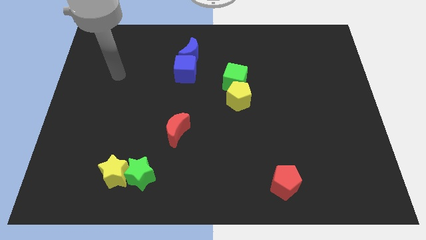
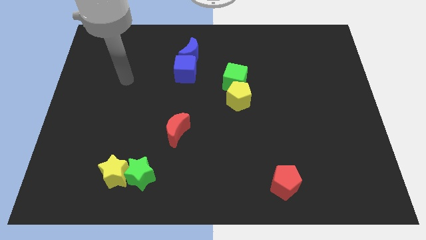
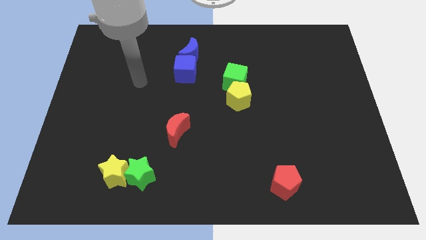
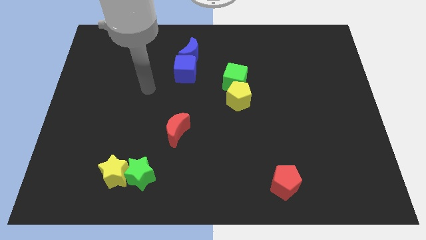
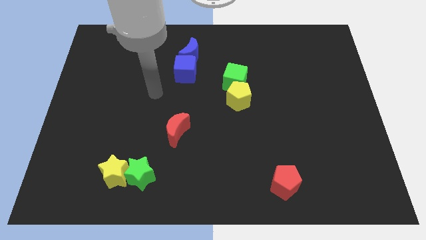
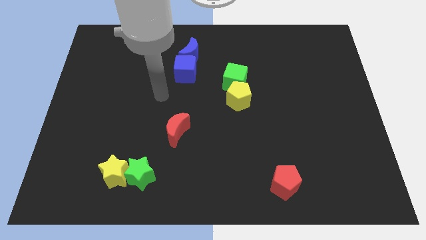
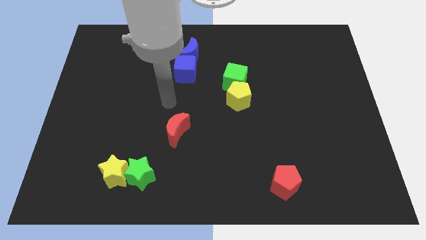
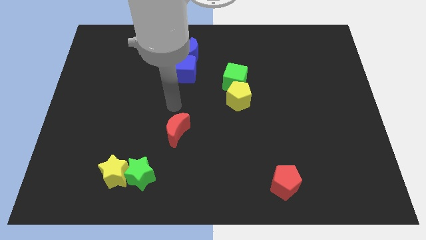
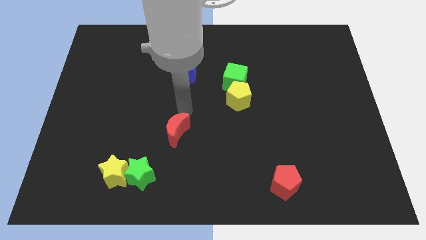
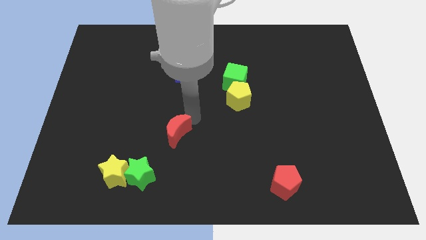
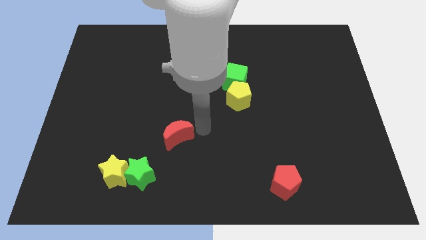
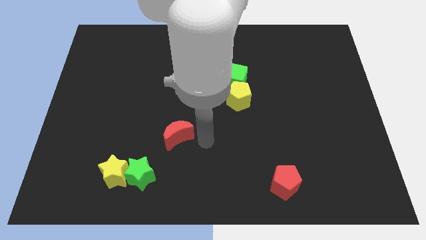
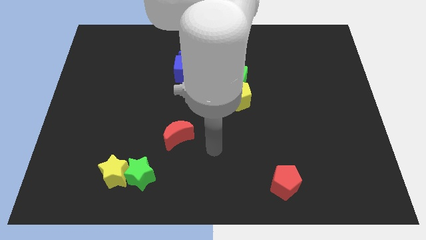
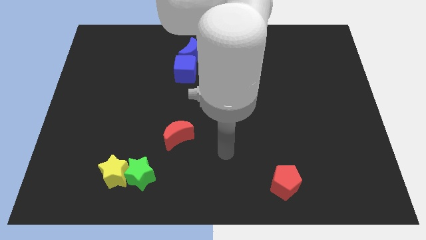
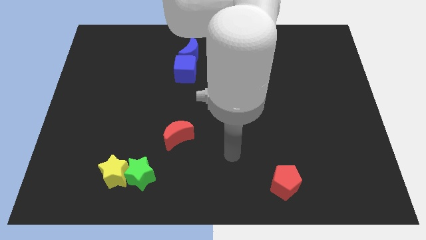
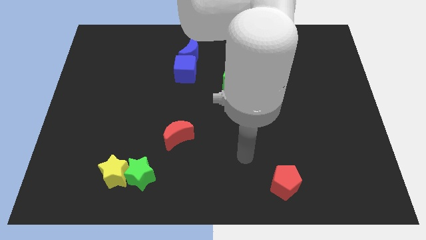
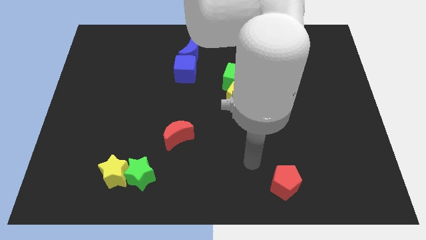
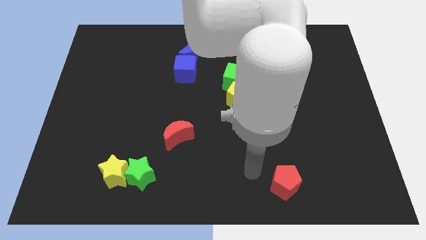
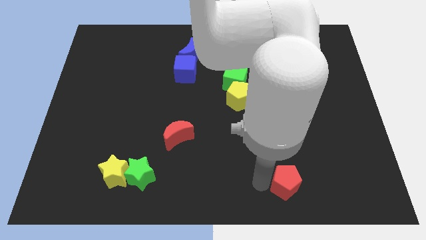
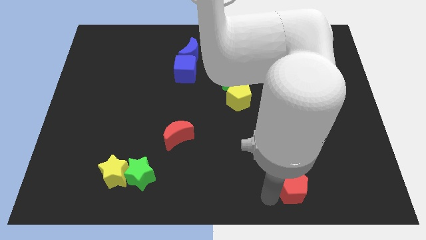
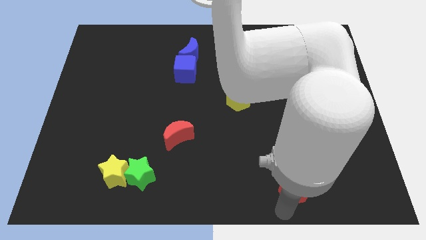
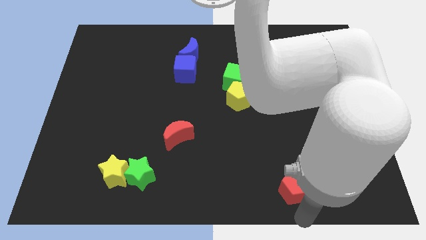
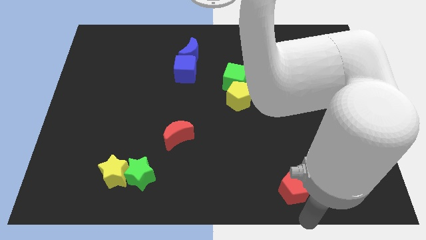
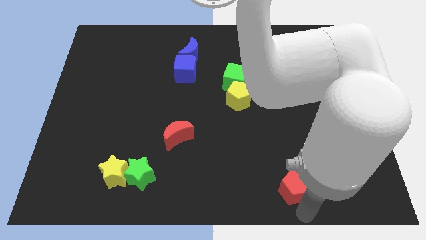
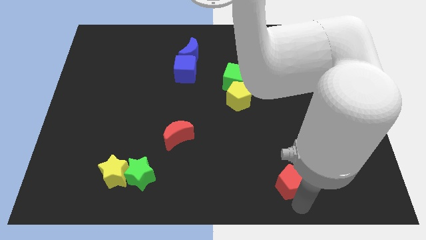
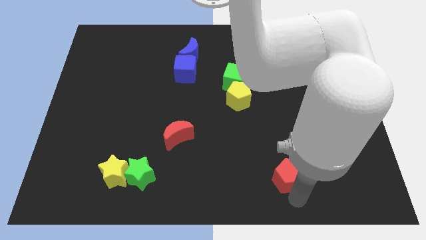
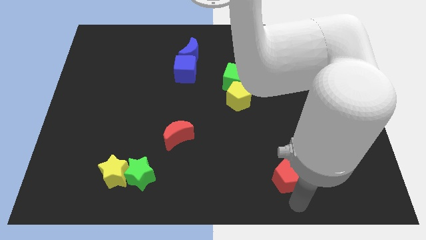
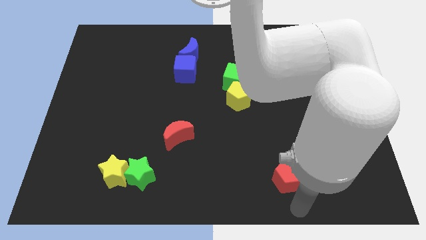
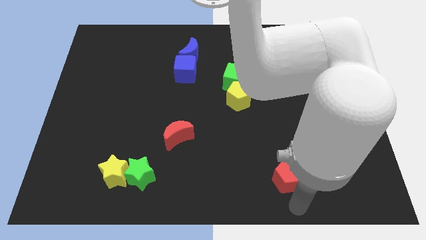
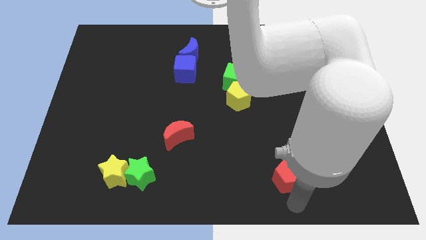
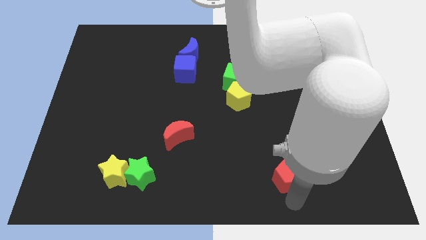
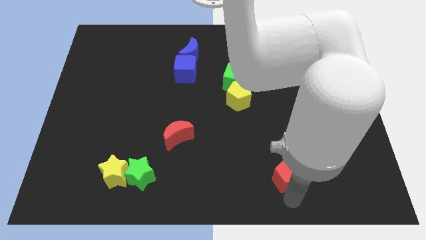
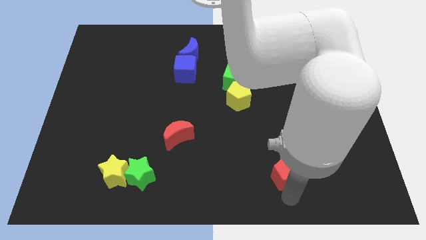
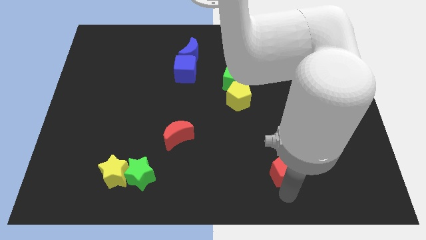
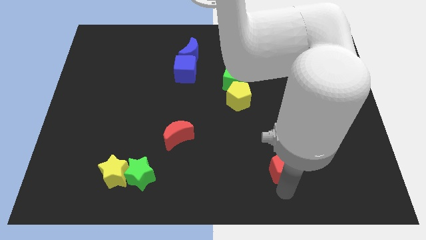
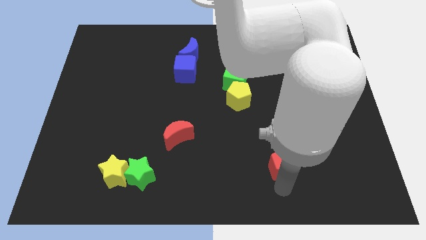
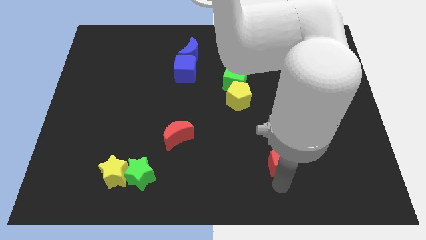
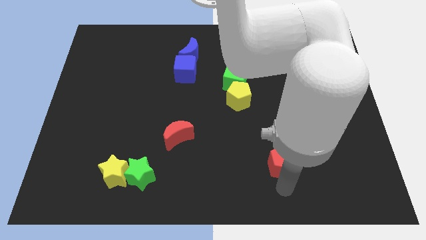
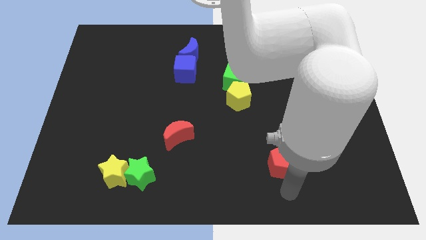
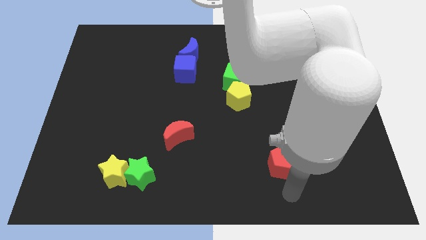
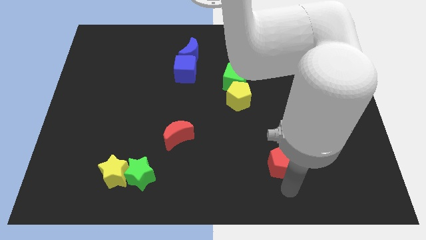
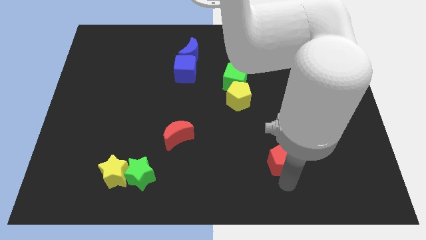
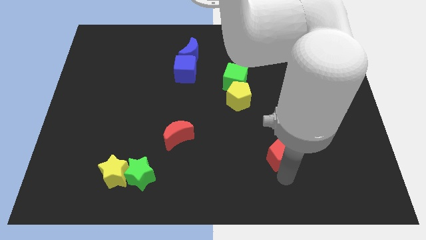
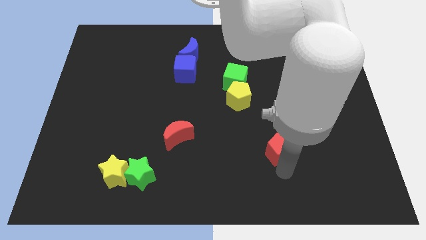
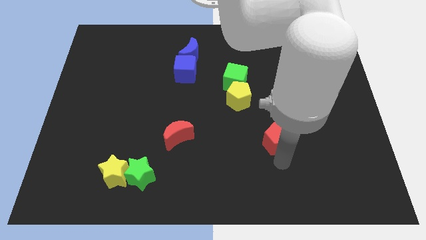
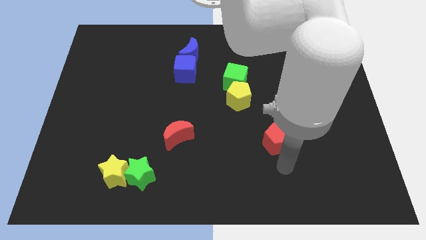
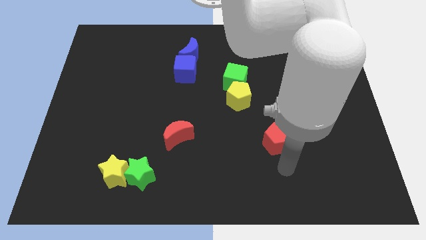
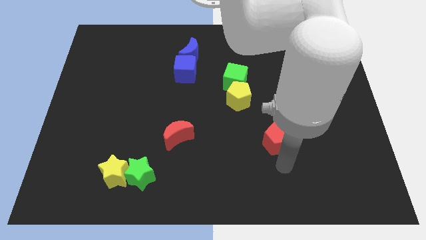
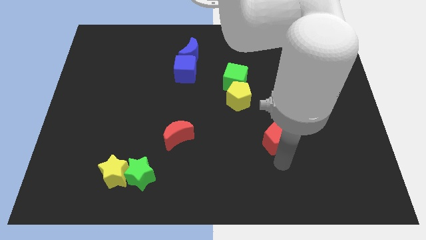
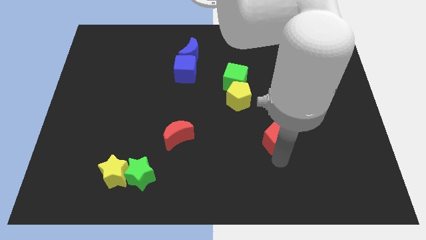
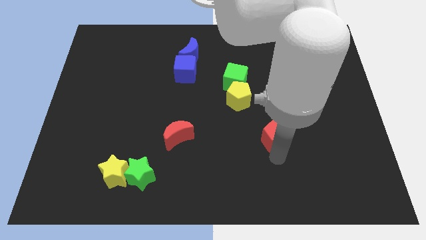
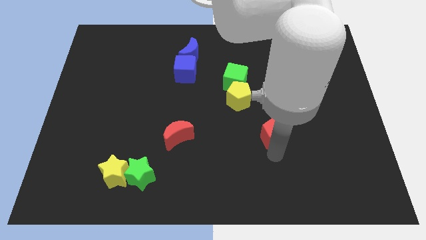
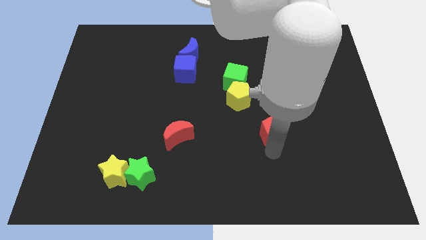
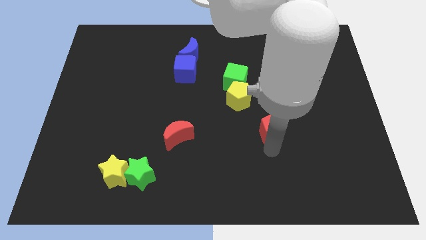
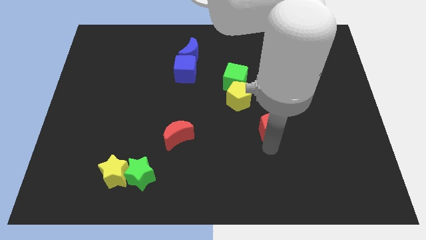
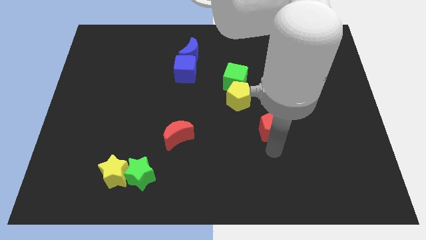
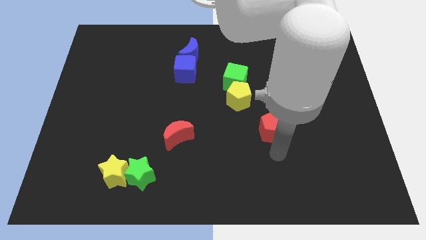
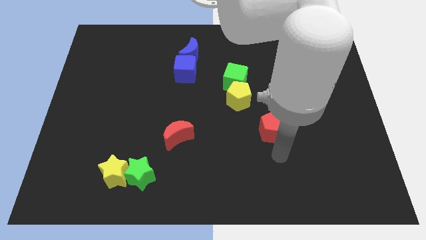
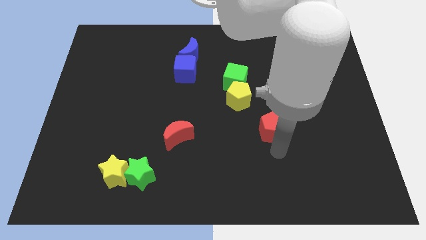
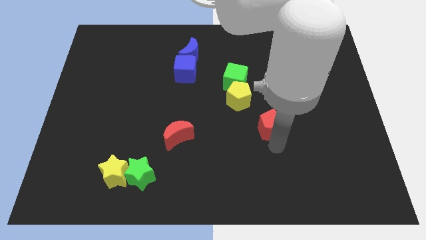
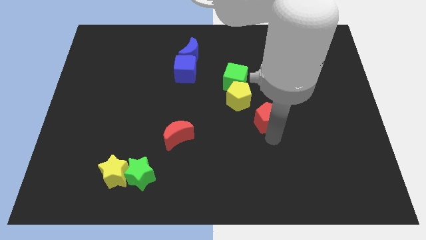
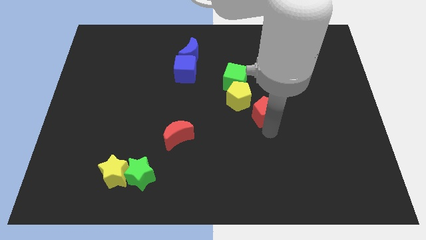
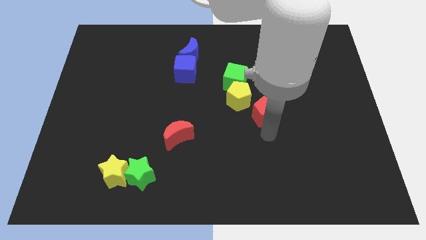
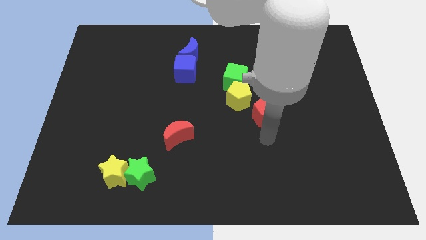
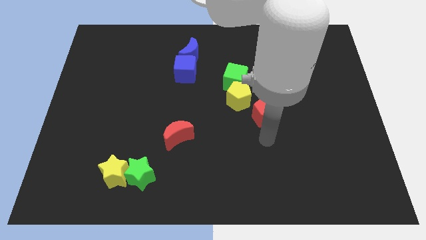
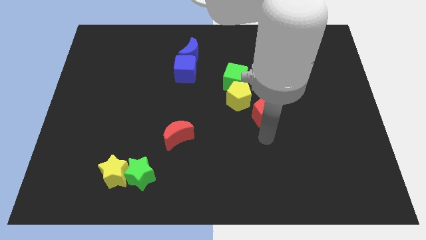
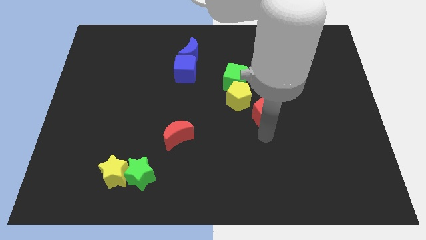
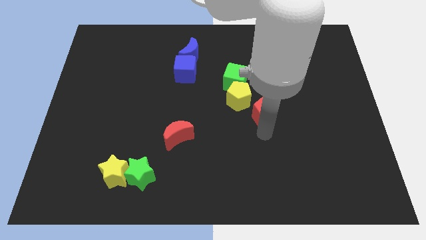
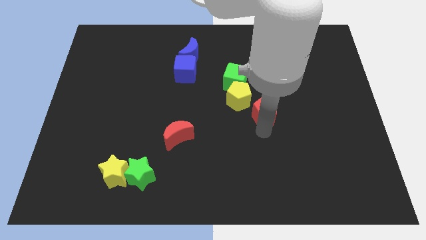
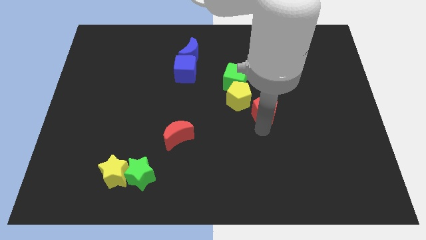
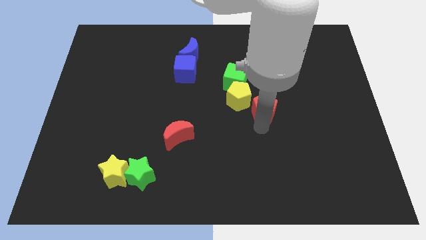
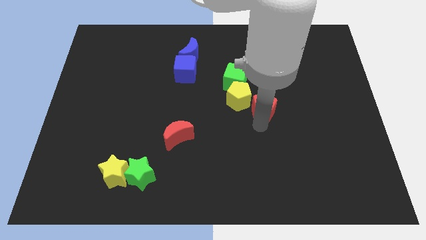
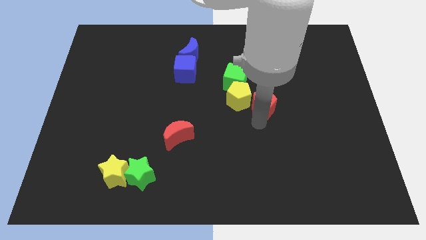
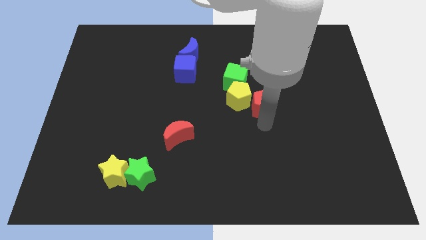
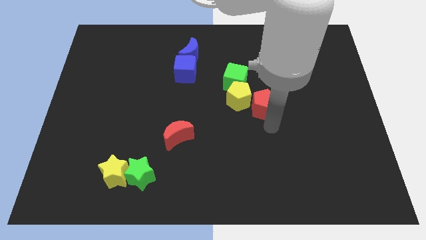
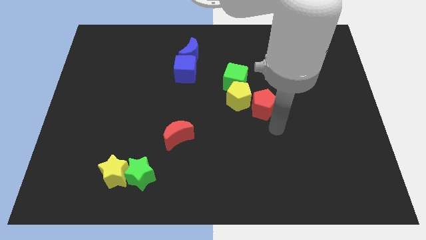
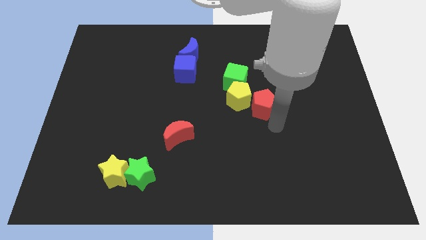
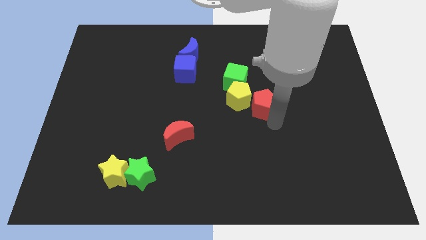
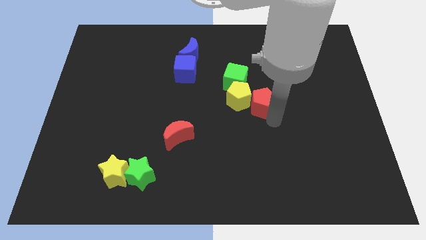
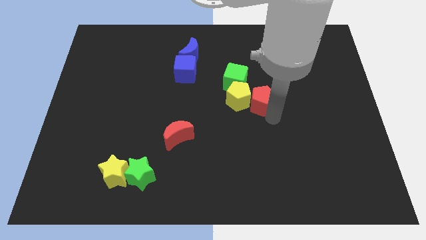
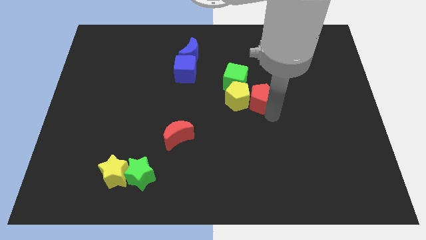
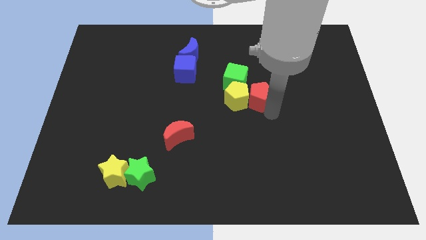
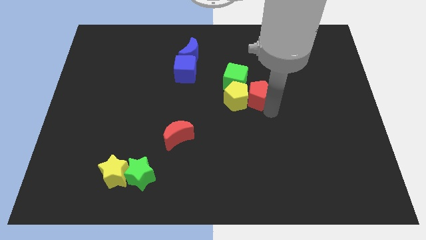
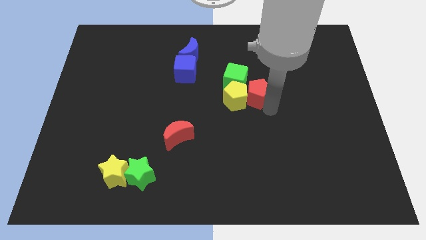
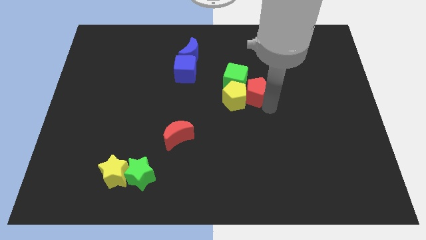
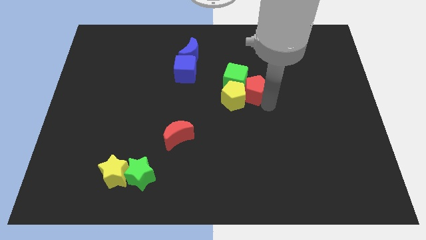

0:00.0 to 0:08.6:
move the red pentagon to the green cube
